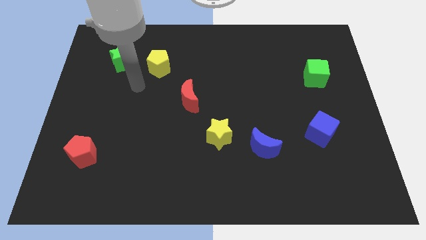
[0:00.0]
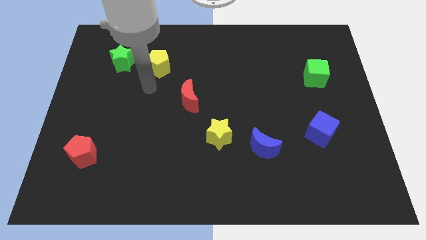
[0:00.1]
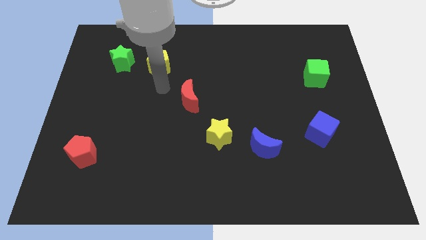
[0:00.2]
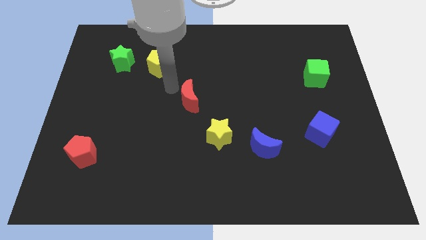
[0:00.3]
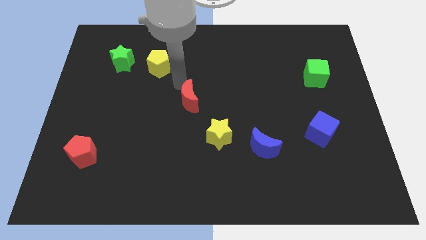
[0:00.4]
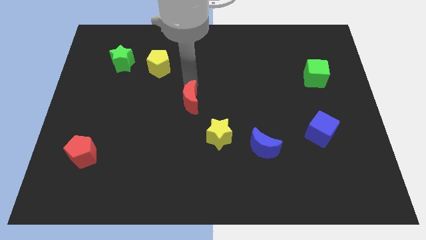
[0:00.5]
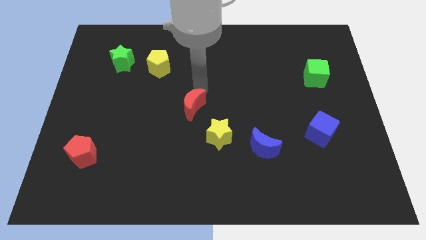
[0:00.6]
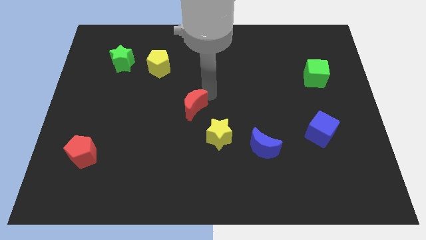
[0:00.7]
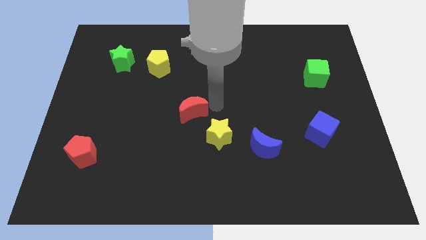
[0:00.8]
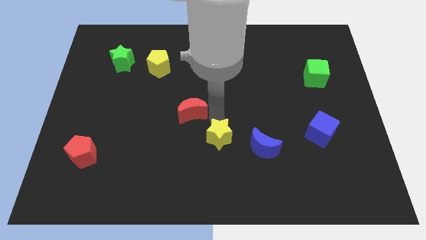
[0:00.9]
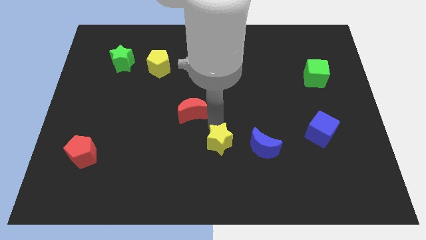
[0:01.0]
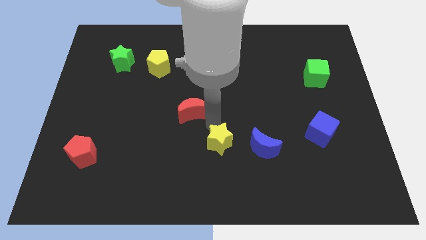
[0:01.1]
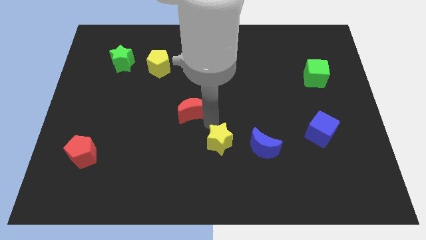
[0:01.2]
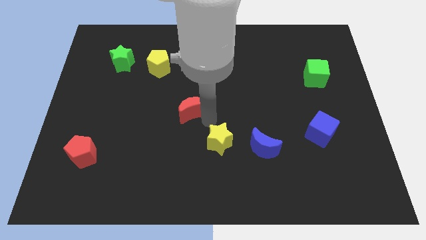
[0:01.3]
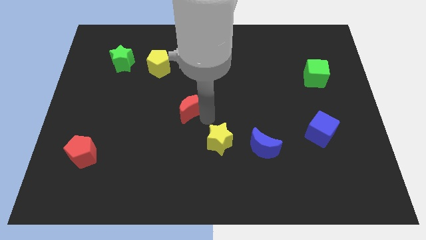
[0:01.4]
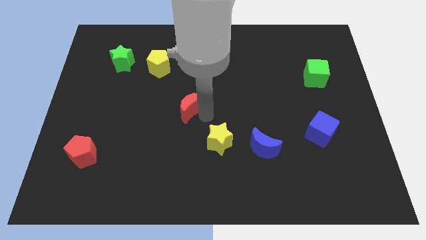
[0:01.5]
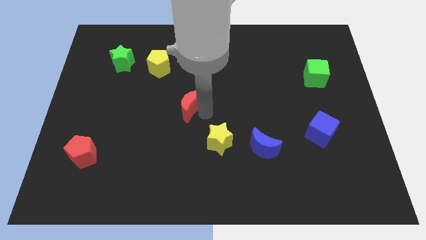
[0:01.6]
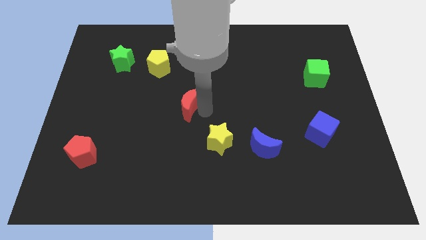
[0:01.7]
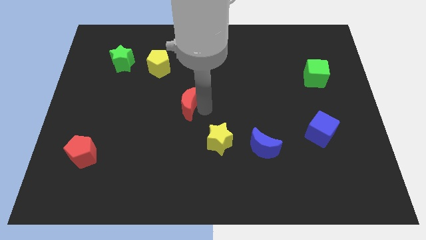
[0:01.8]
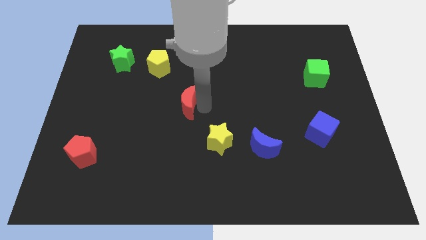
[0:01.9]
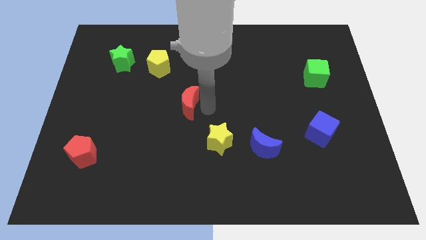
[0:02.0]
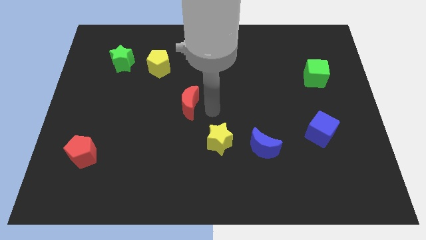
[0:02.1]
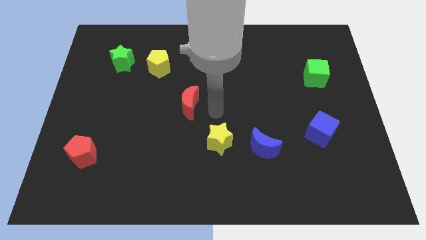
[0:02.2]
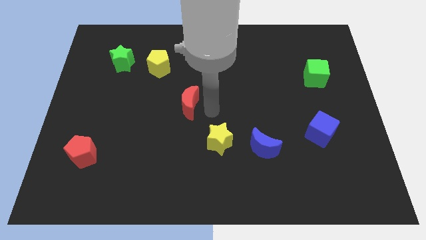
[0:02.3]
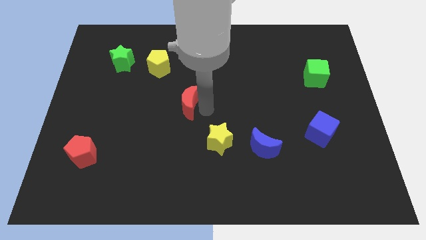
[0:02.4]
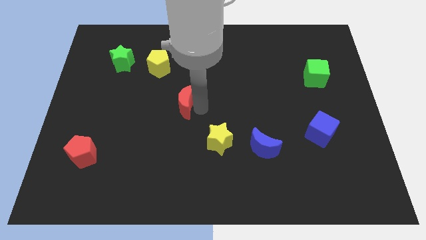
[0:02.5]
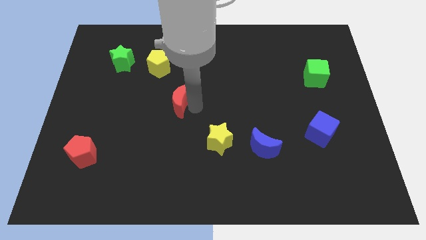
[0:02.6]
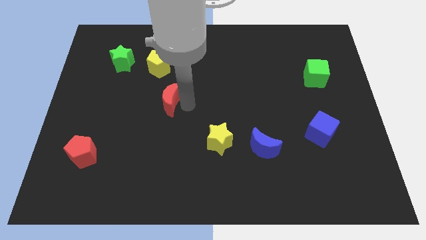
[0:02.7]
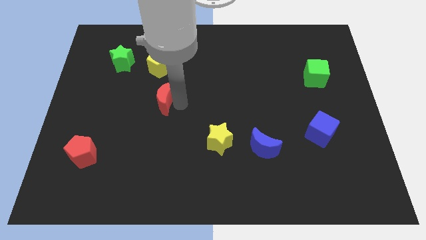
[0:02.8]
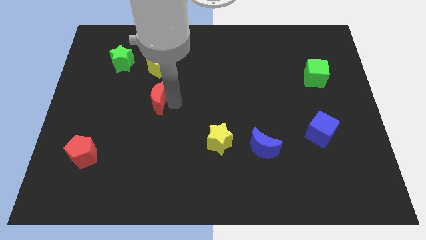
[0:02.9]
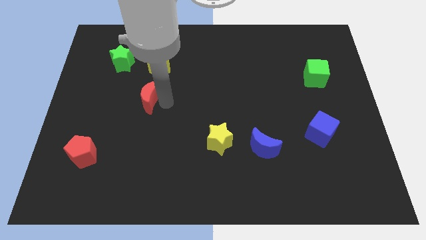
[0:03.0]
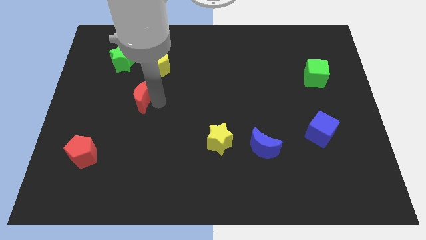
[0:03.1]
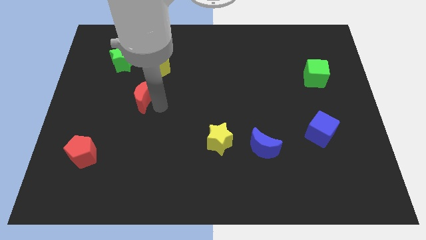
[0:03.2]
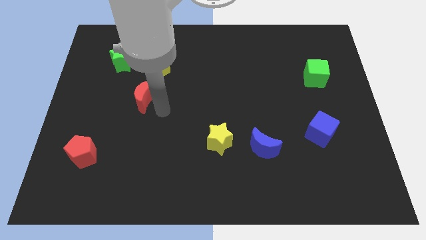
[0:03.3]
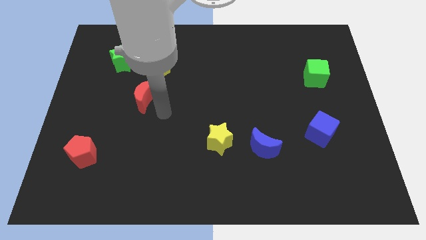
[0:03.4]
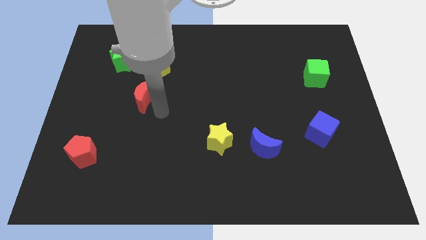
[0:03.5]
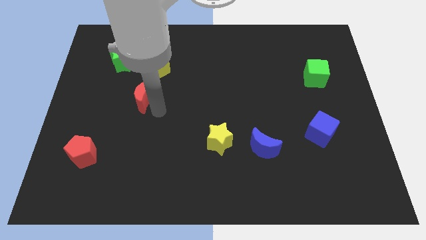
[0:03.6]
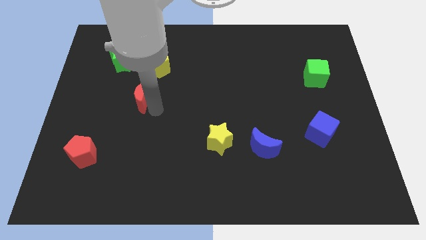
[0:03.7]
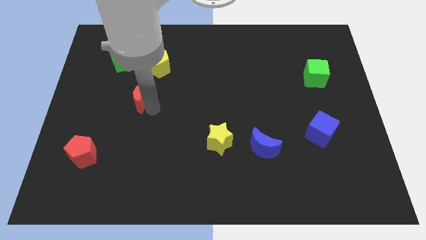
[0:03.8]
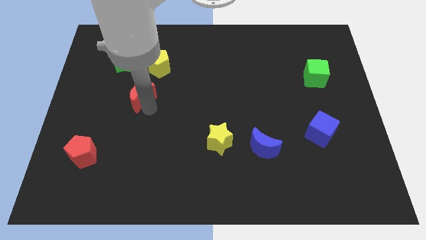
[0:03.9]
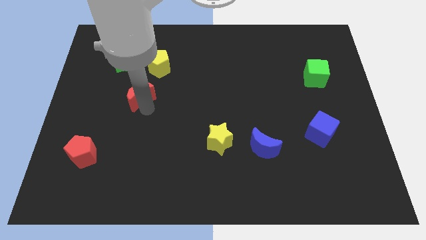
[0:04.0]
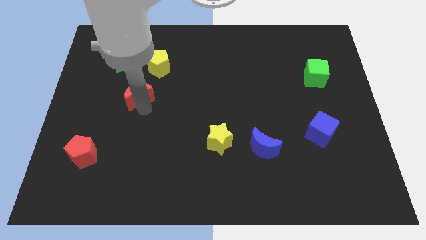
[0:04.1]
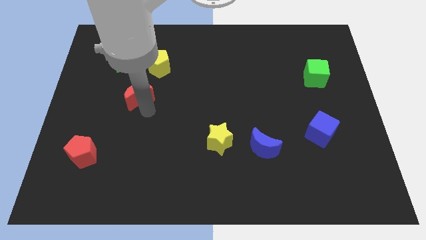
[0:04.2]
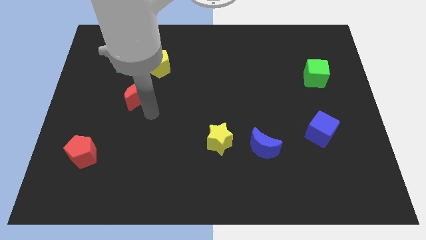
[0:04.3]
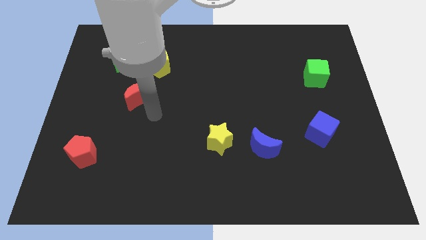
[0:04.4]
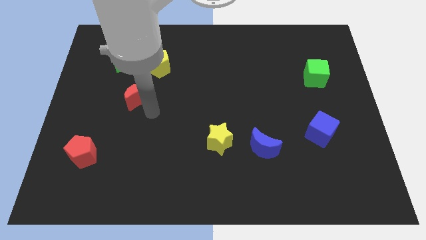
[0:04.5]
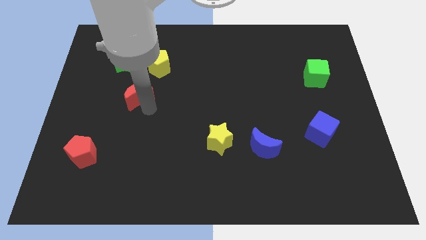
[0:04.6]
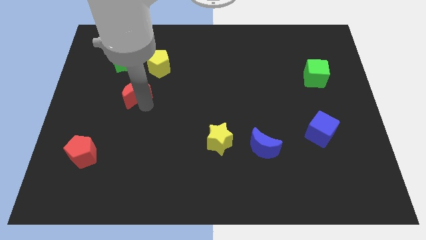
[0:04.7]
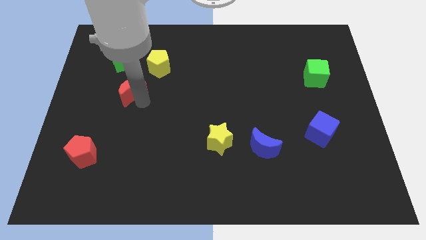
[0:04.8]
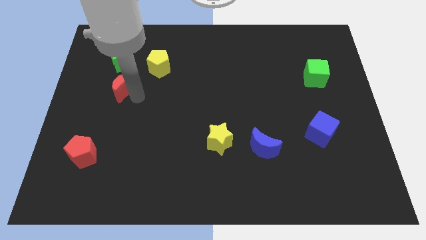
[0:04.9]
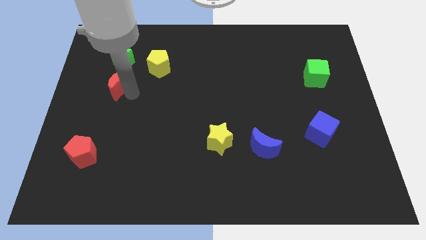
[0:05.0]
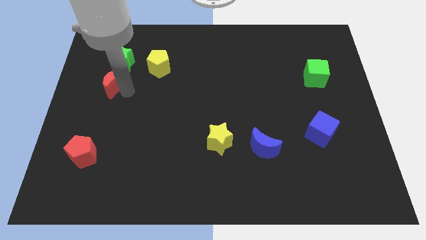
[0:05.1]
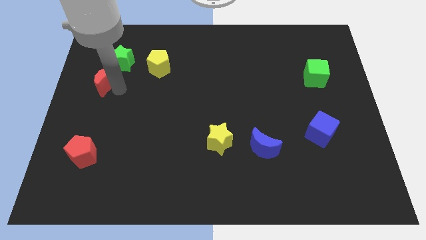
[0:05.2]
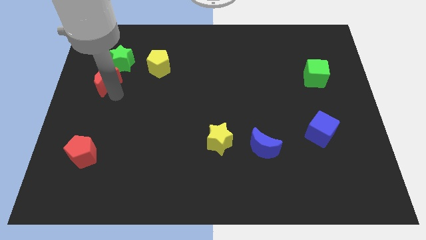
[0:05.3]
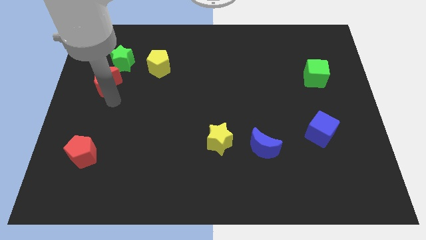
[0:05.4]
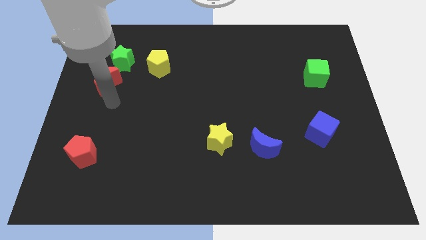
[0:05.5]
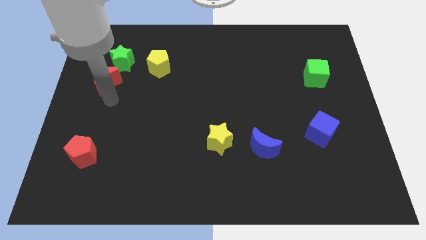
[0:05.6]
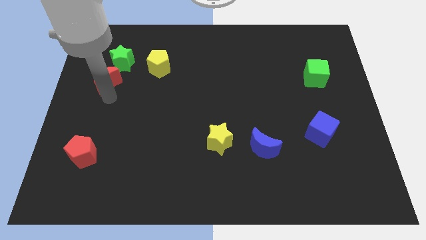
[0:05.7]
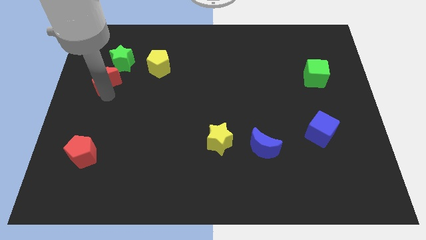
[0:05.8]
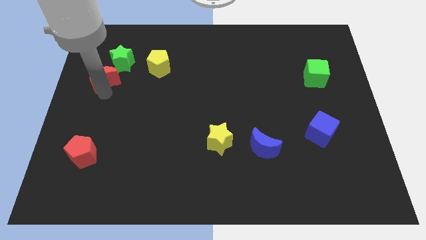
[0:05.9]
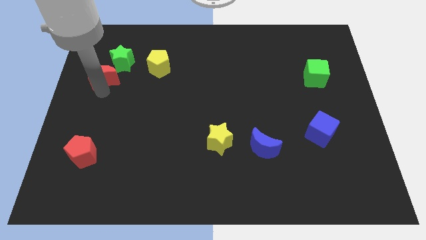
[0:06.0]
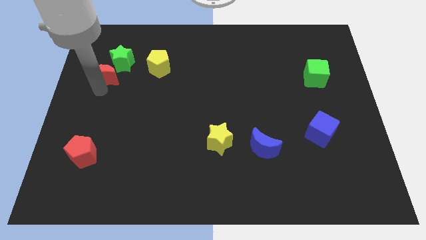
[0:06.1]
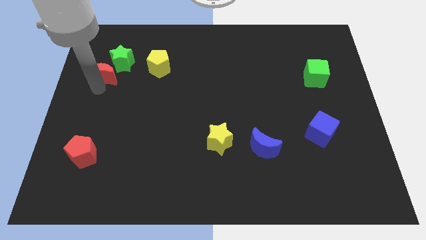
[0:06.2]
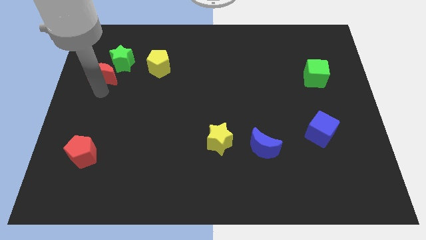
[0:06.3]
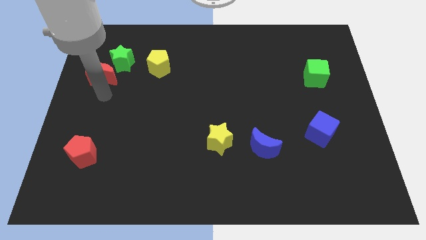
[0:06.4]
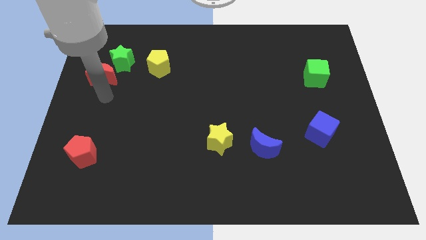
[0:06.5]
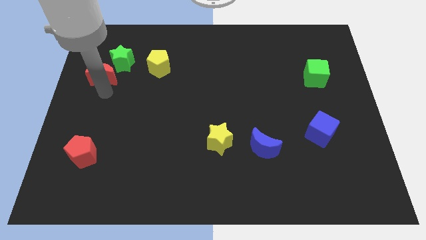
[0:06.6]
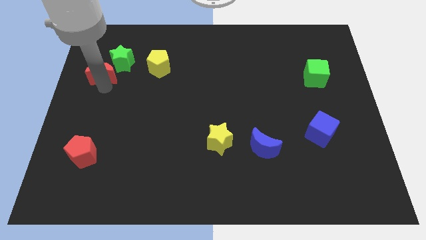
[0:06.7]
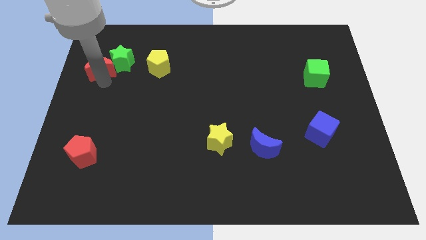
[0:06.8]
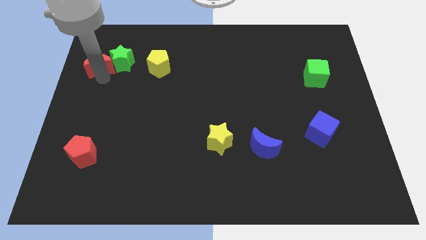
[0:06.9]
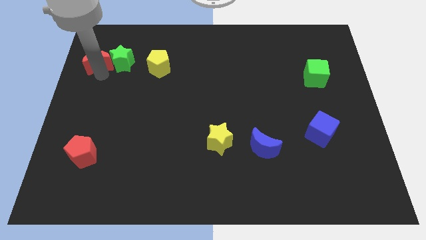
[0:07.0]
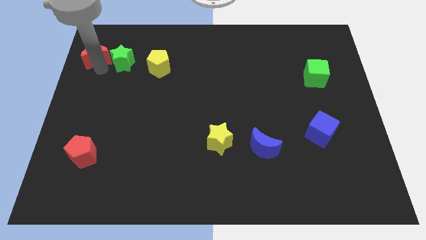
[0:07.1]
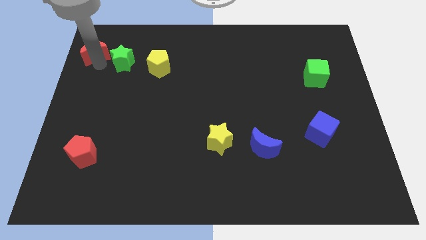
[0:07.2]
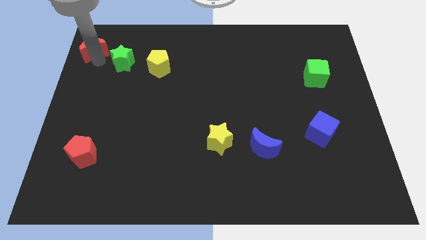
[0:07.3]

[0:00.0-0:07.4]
slide the red moon to the upper left corner
